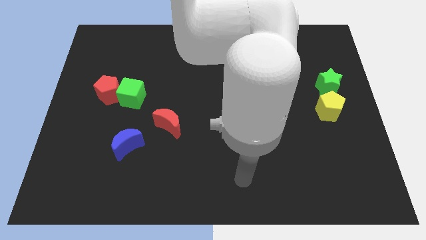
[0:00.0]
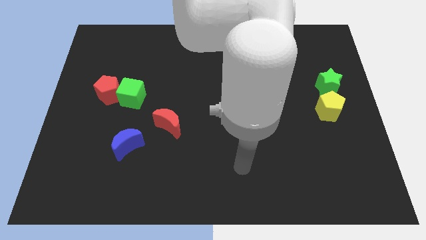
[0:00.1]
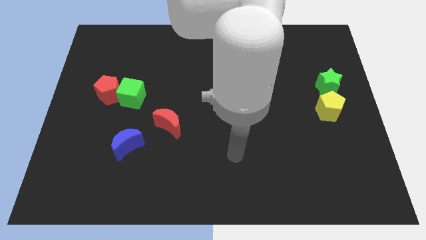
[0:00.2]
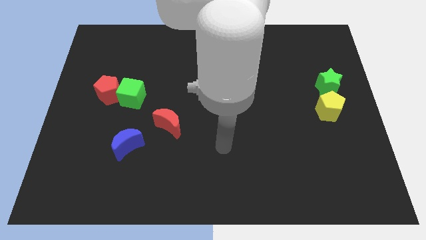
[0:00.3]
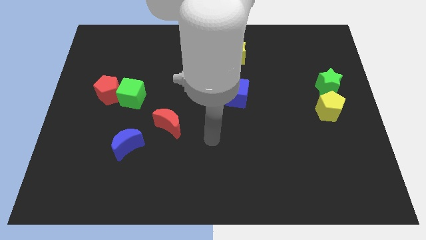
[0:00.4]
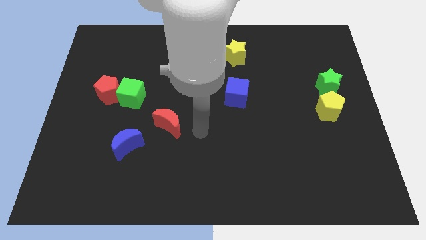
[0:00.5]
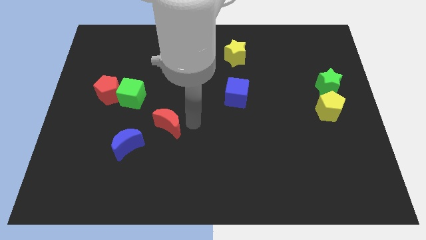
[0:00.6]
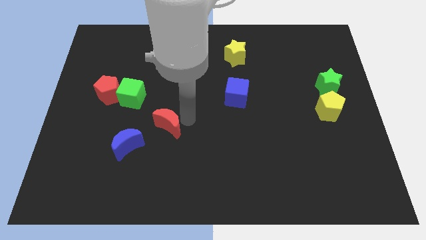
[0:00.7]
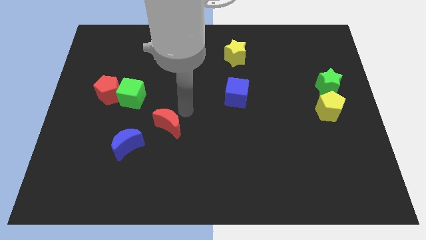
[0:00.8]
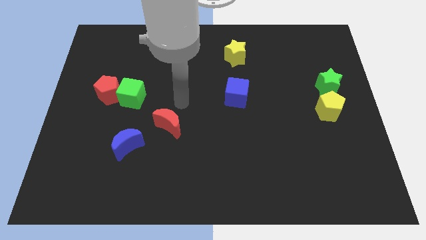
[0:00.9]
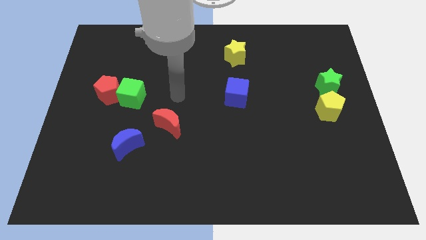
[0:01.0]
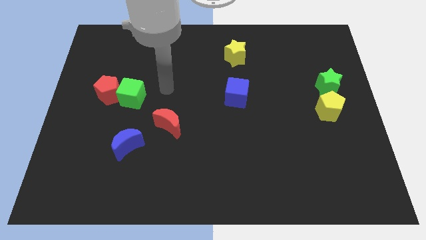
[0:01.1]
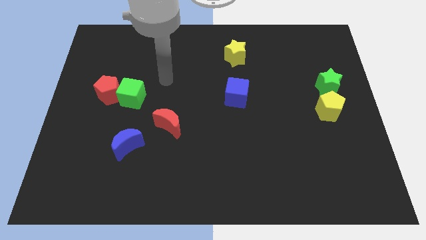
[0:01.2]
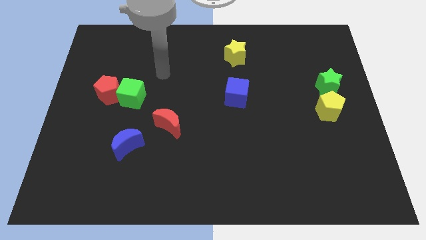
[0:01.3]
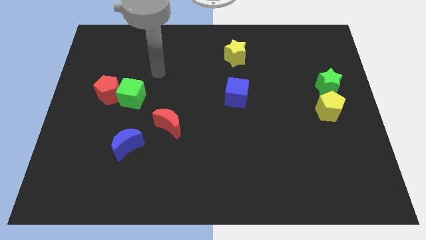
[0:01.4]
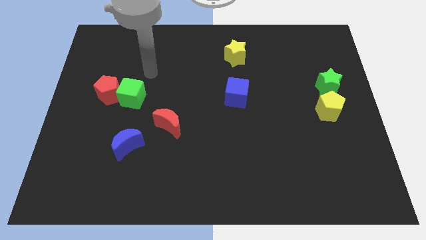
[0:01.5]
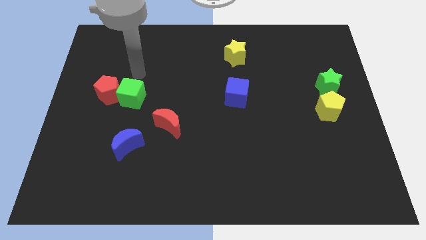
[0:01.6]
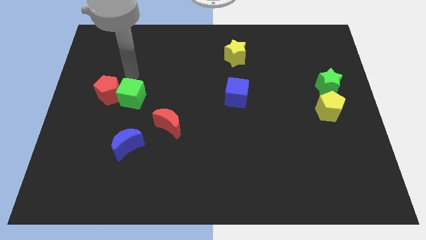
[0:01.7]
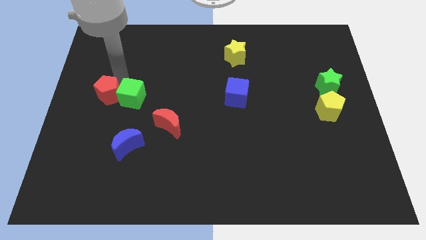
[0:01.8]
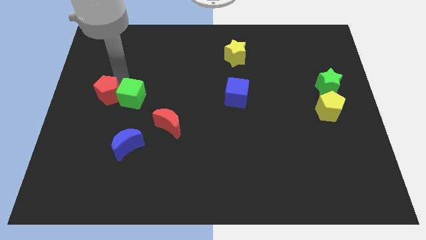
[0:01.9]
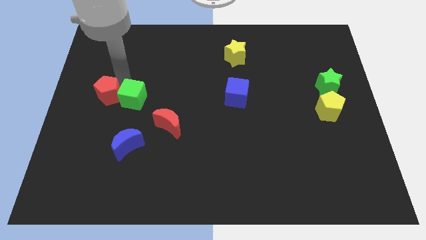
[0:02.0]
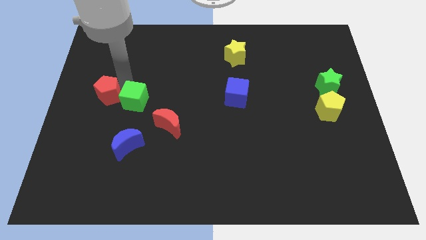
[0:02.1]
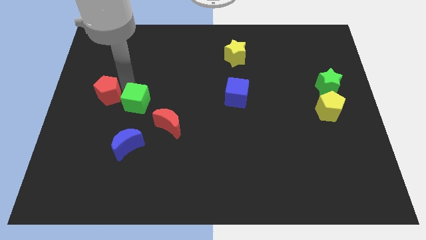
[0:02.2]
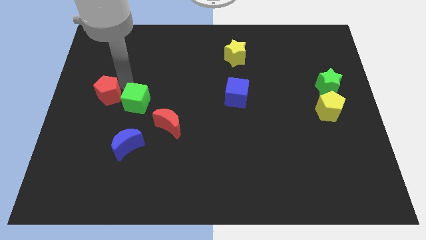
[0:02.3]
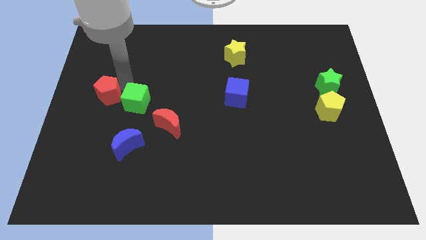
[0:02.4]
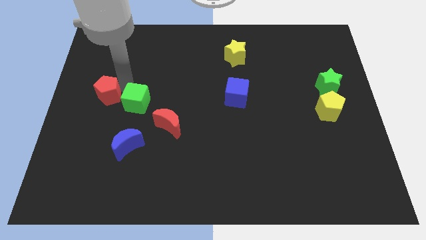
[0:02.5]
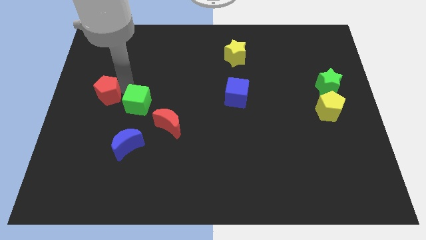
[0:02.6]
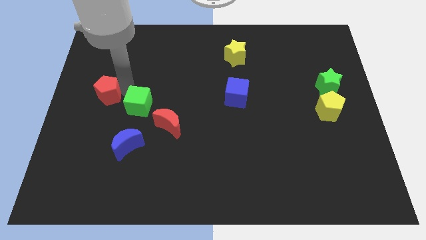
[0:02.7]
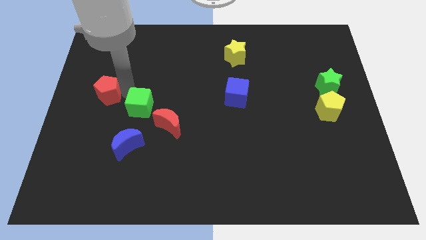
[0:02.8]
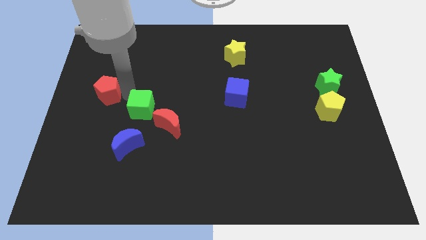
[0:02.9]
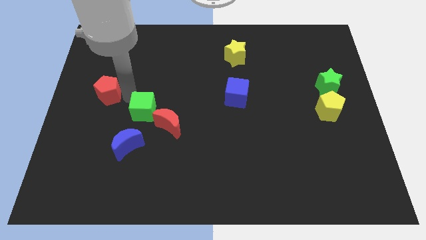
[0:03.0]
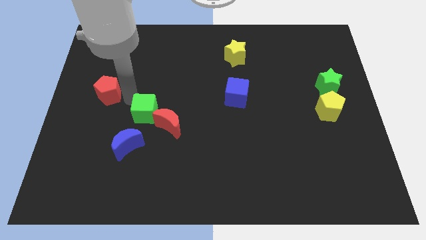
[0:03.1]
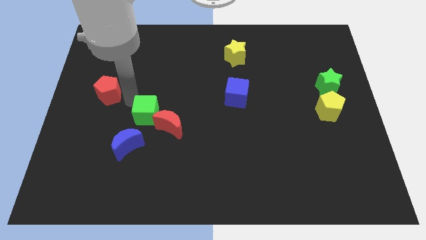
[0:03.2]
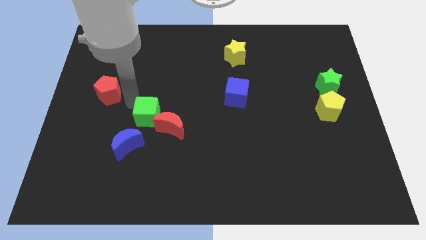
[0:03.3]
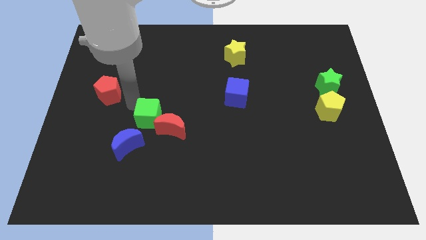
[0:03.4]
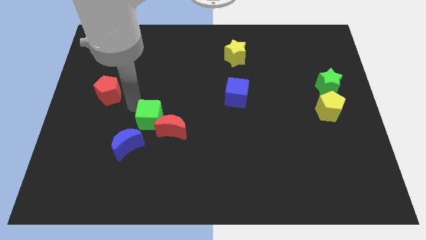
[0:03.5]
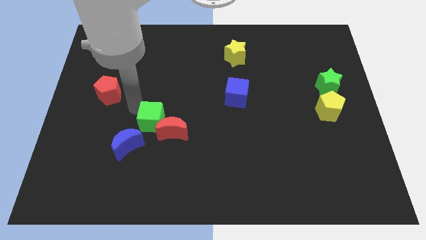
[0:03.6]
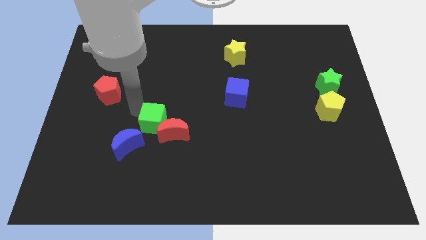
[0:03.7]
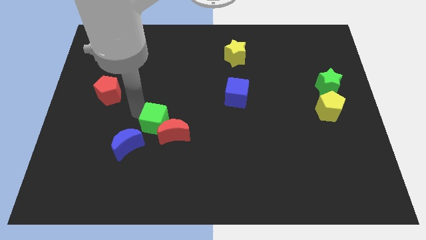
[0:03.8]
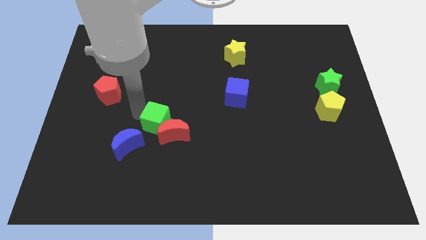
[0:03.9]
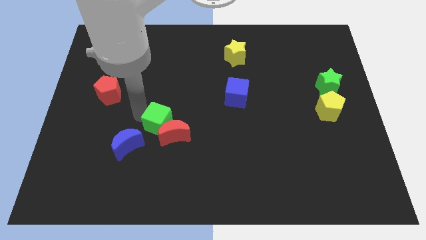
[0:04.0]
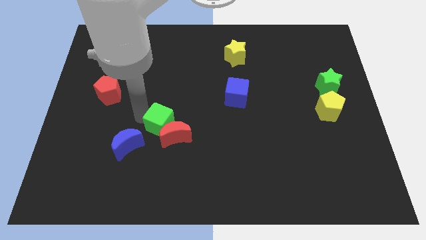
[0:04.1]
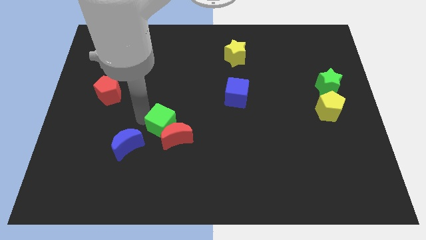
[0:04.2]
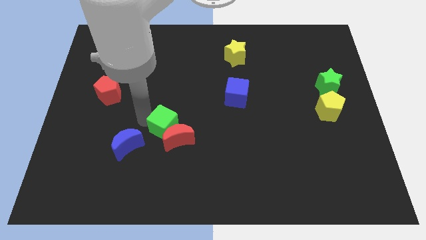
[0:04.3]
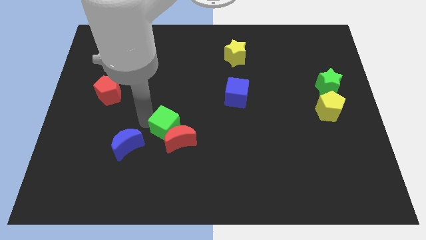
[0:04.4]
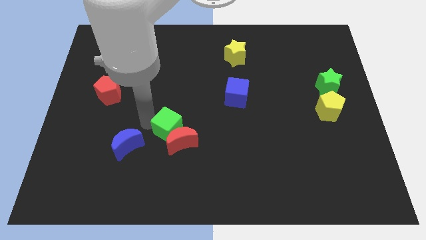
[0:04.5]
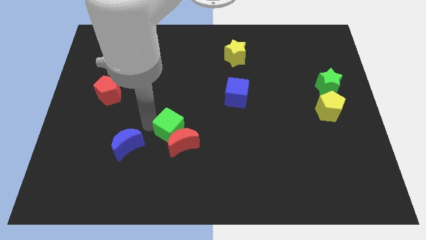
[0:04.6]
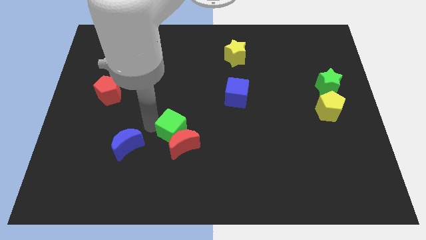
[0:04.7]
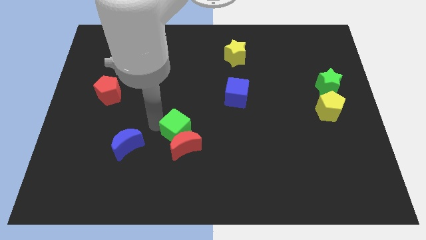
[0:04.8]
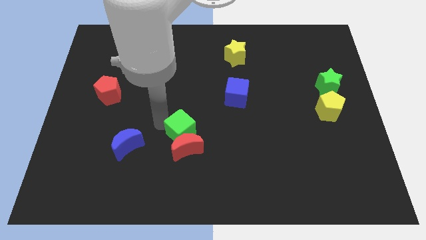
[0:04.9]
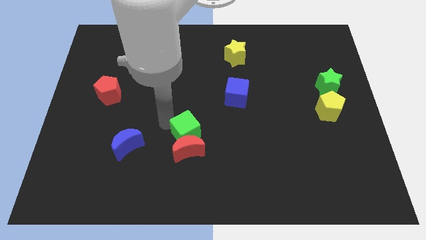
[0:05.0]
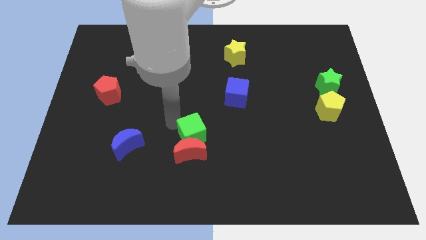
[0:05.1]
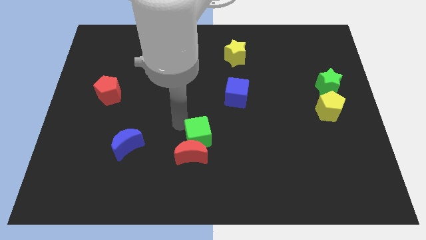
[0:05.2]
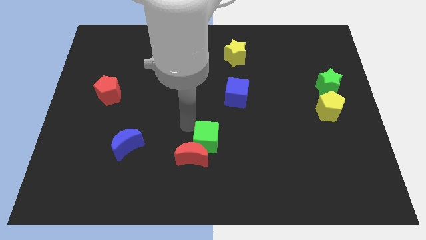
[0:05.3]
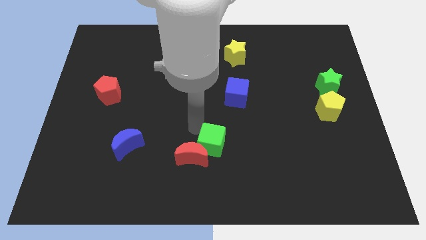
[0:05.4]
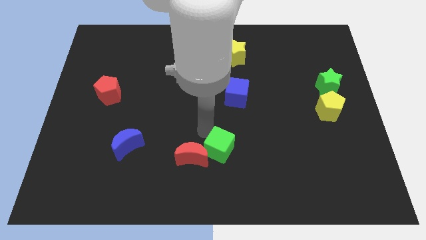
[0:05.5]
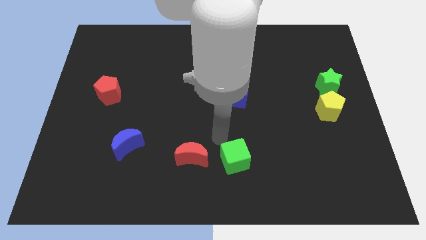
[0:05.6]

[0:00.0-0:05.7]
push the green cube to the bottom
